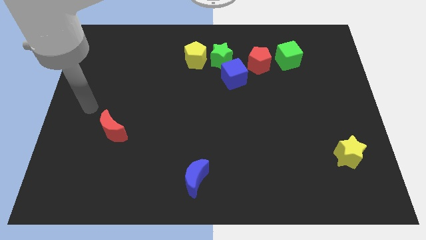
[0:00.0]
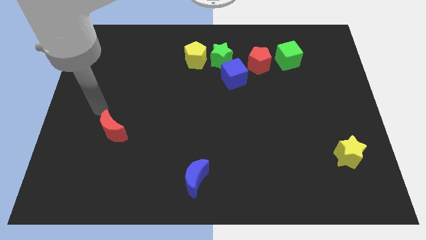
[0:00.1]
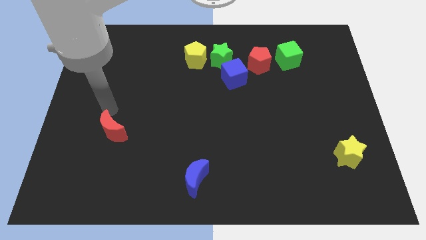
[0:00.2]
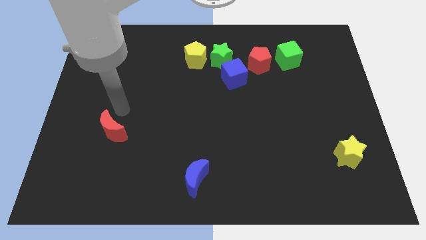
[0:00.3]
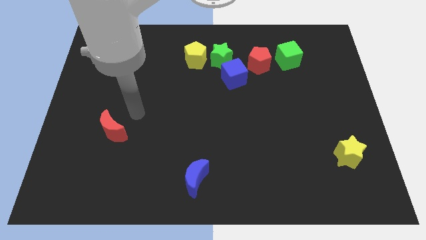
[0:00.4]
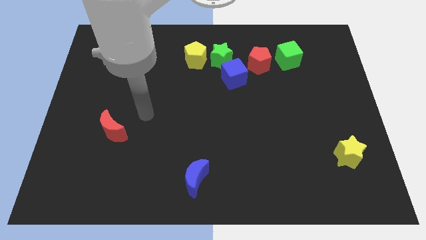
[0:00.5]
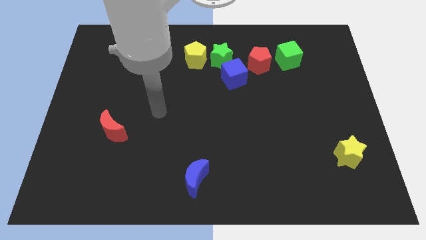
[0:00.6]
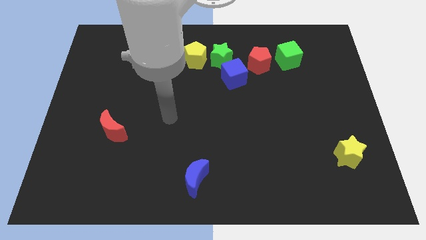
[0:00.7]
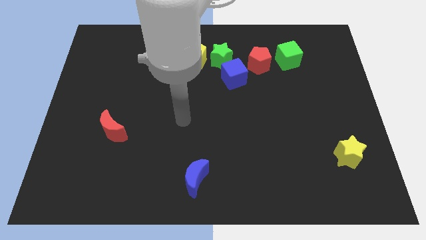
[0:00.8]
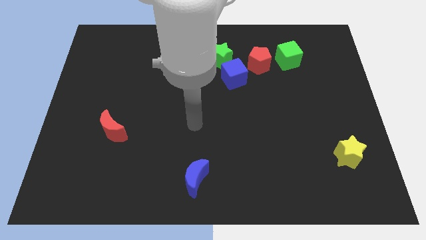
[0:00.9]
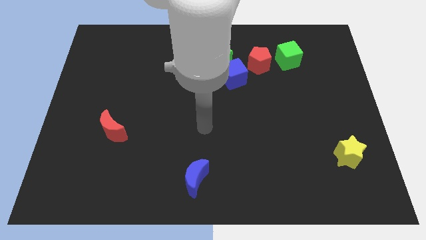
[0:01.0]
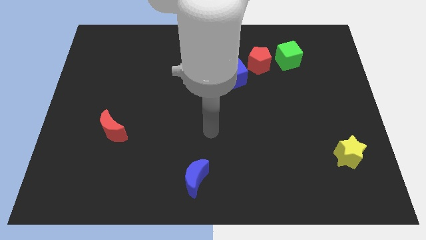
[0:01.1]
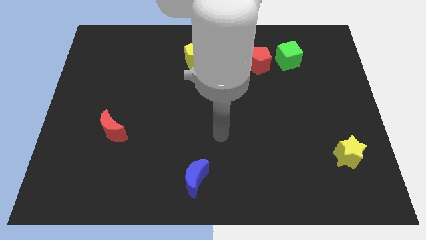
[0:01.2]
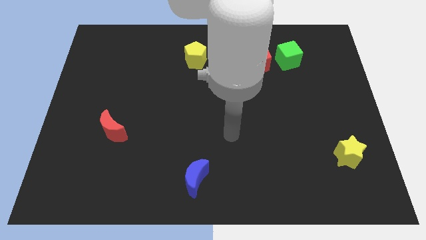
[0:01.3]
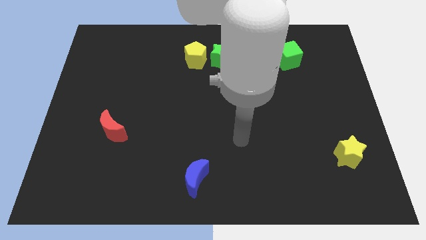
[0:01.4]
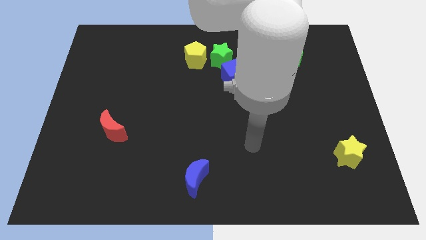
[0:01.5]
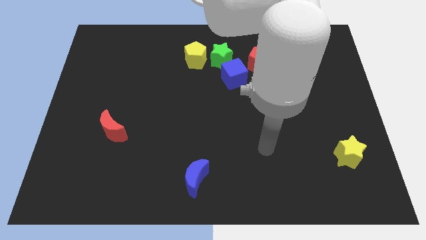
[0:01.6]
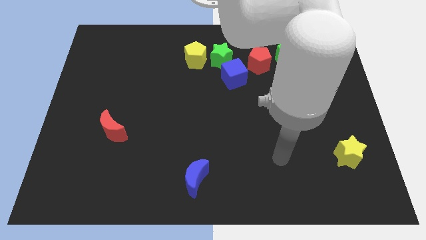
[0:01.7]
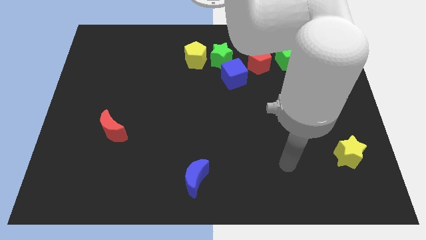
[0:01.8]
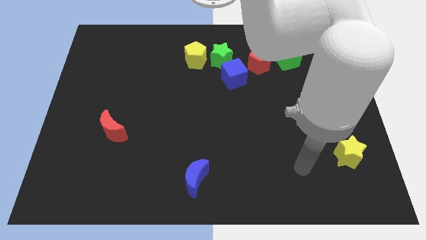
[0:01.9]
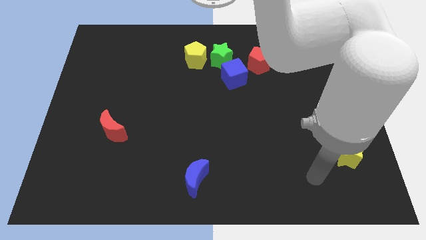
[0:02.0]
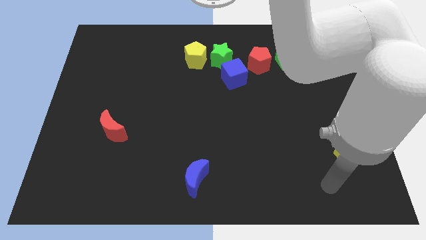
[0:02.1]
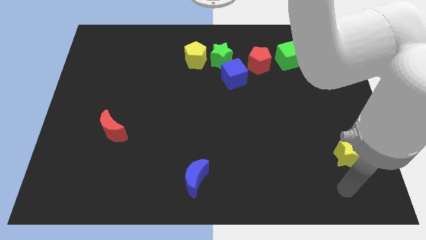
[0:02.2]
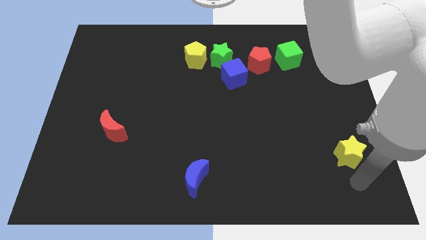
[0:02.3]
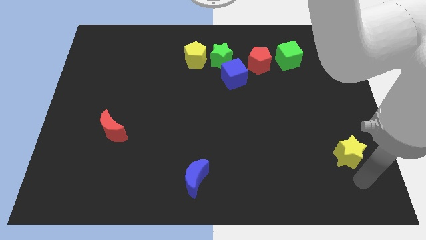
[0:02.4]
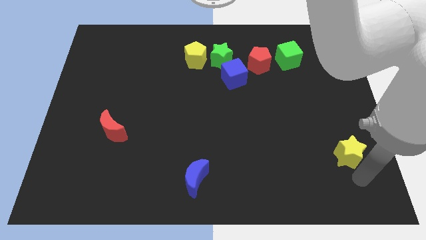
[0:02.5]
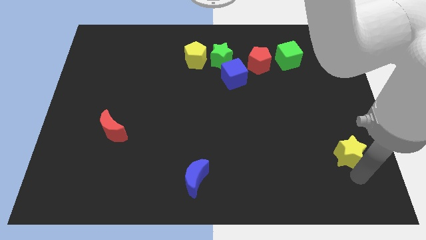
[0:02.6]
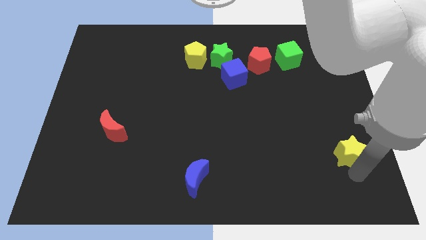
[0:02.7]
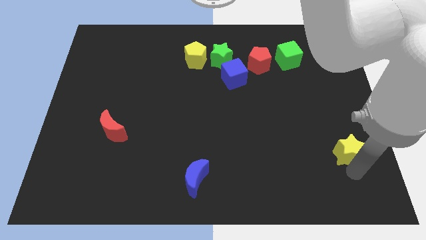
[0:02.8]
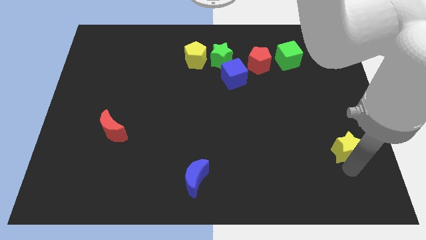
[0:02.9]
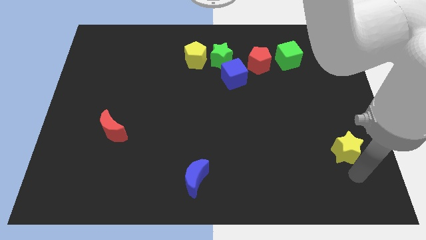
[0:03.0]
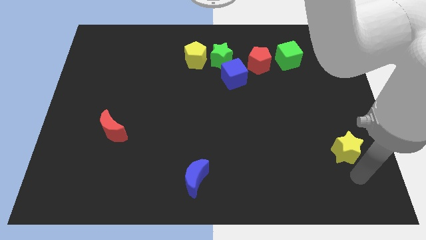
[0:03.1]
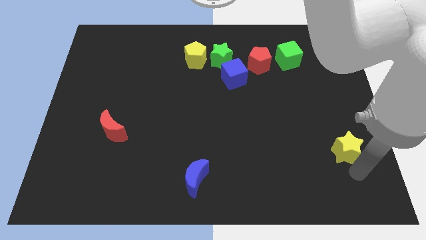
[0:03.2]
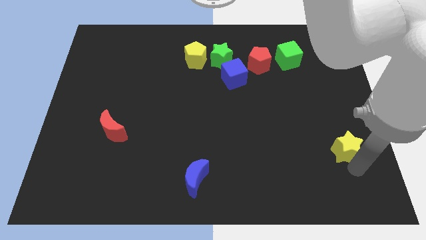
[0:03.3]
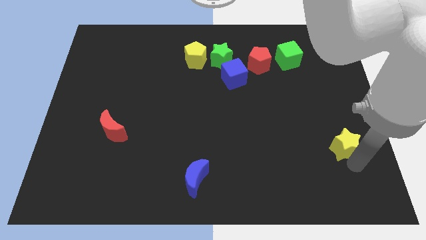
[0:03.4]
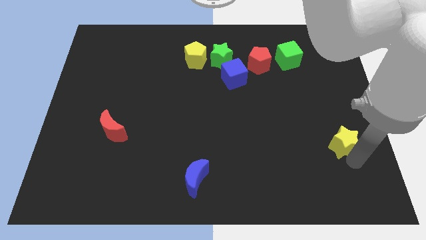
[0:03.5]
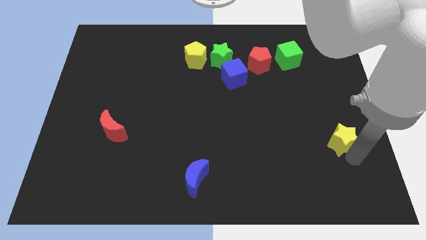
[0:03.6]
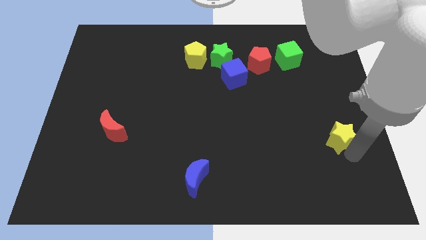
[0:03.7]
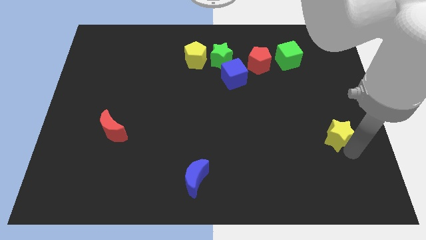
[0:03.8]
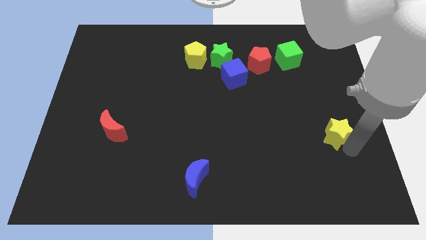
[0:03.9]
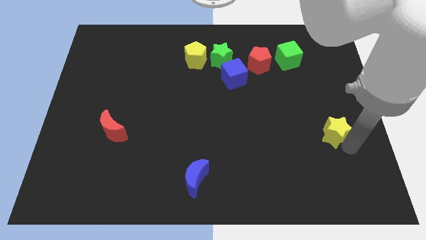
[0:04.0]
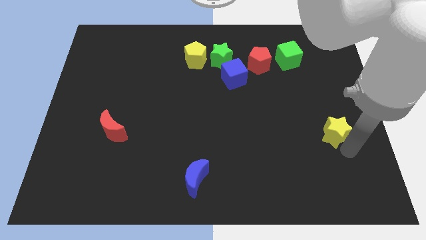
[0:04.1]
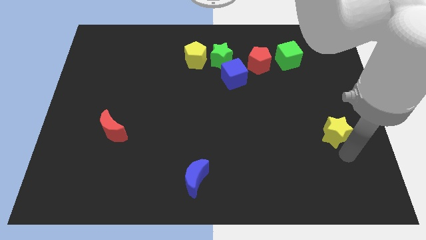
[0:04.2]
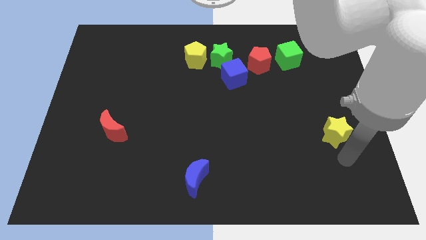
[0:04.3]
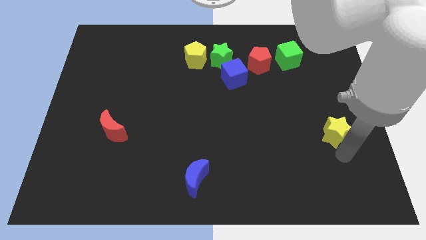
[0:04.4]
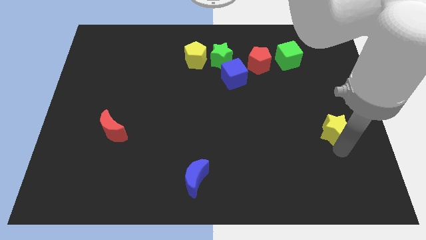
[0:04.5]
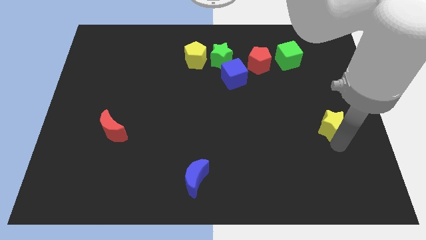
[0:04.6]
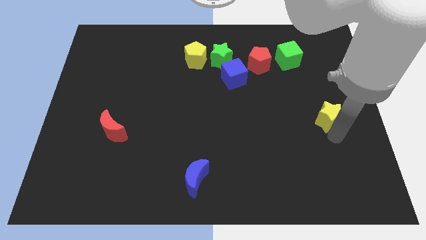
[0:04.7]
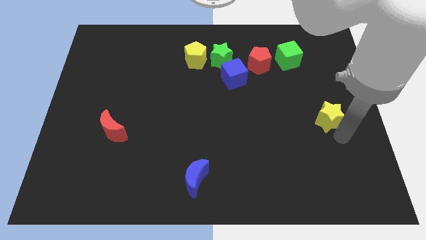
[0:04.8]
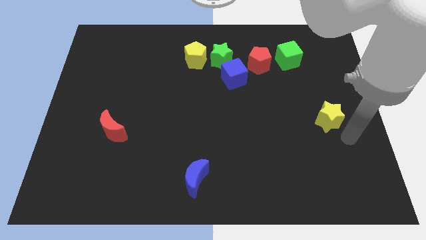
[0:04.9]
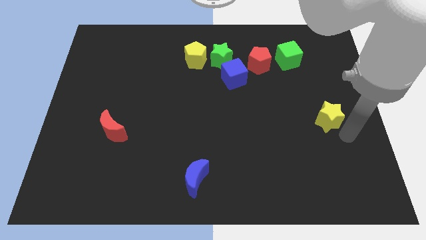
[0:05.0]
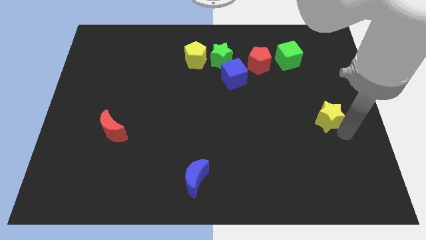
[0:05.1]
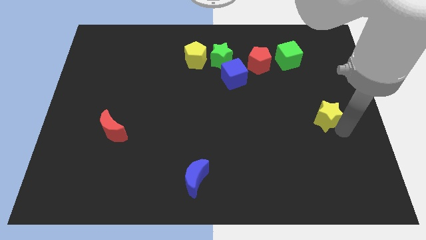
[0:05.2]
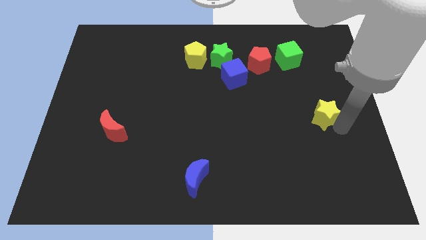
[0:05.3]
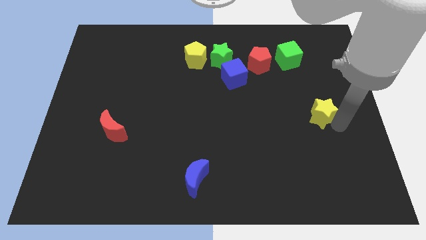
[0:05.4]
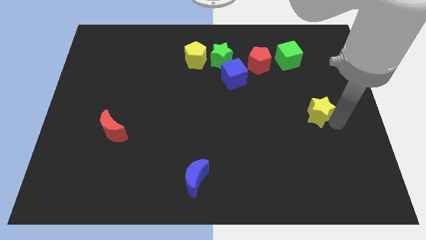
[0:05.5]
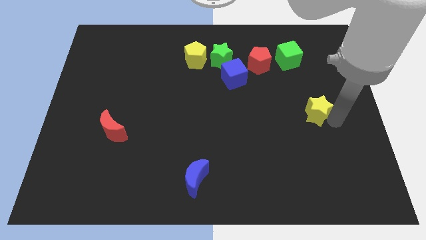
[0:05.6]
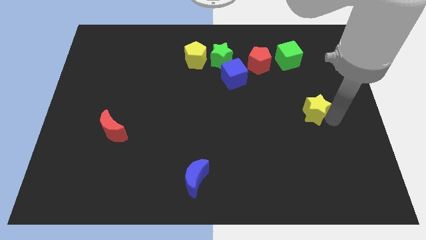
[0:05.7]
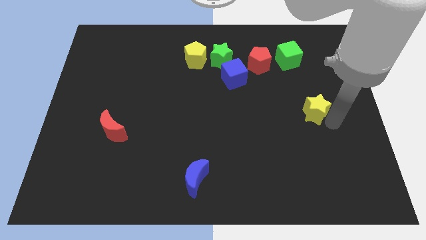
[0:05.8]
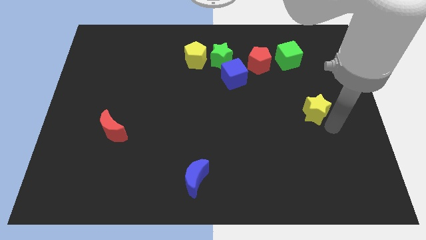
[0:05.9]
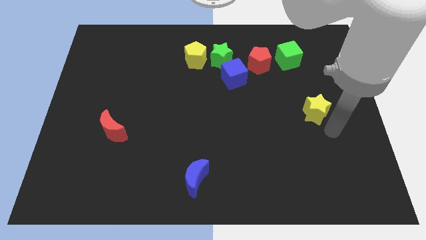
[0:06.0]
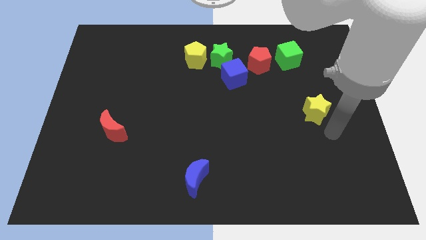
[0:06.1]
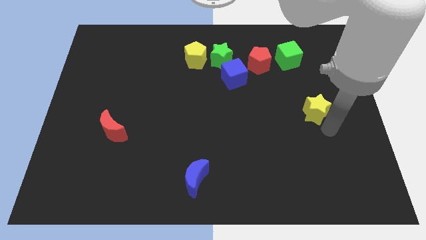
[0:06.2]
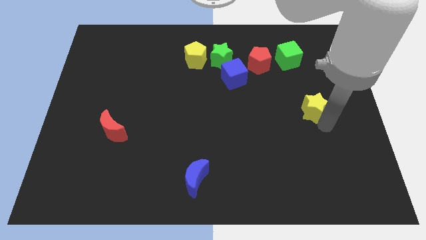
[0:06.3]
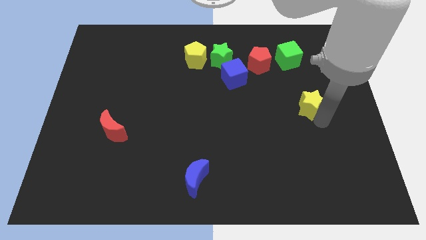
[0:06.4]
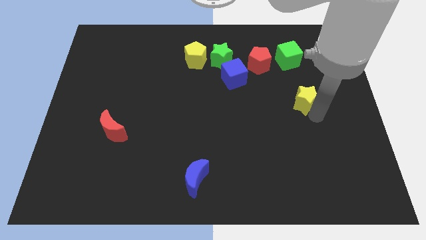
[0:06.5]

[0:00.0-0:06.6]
move the yellow star below the green cube
